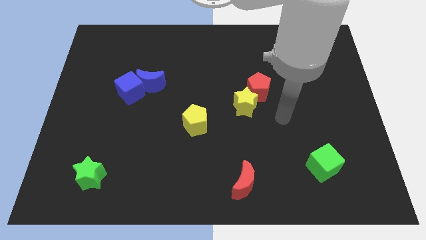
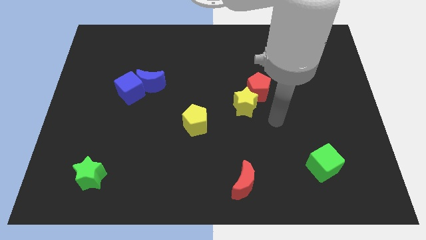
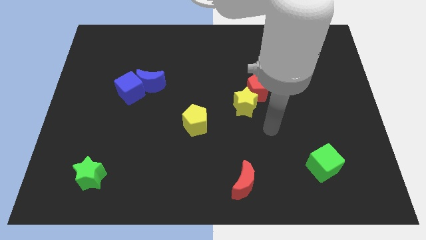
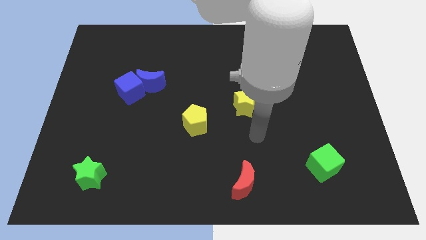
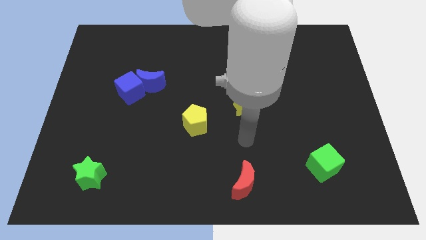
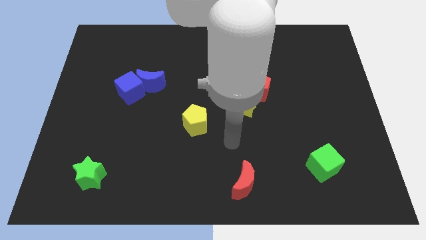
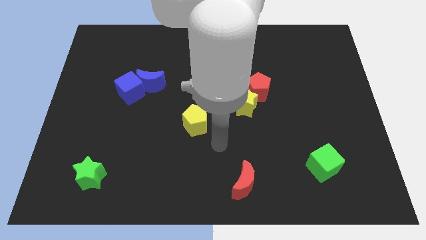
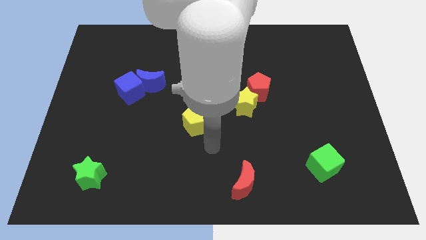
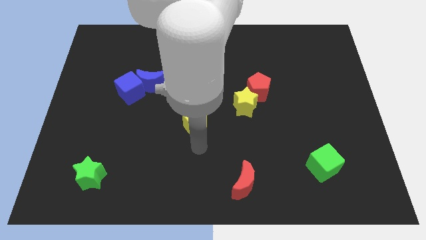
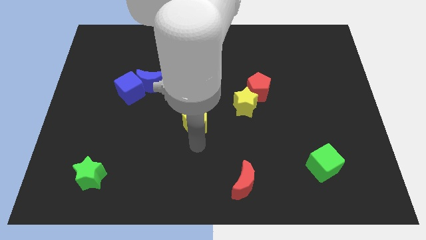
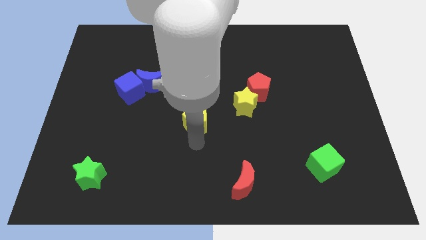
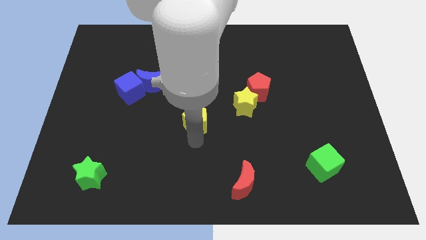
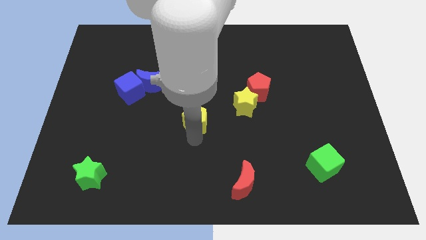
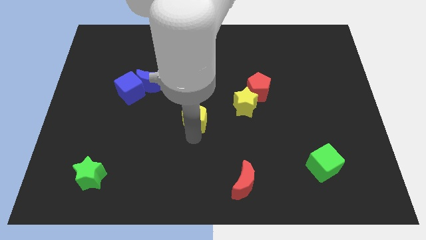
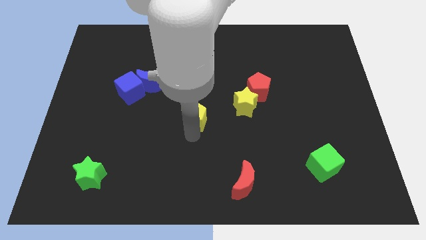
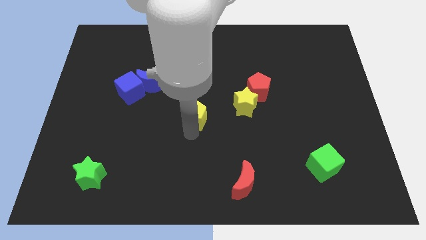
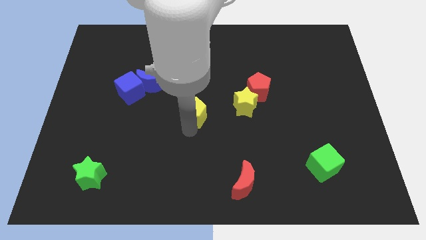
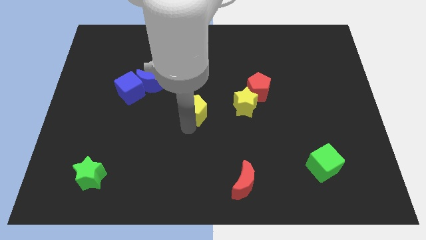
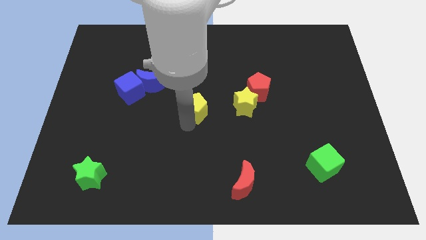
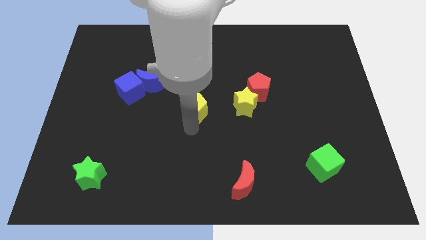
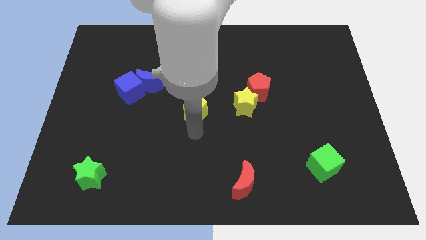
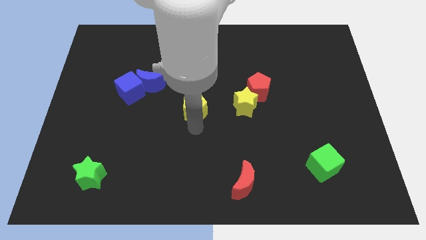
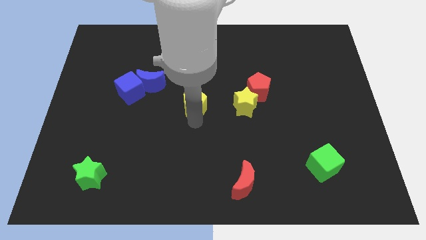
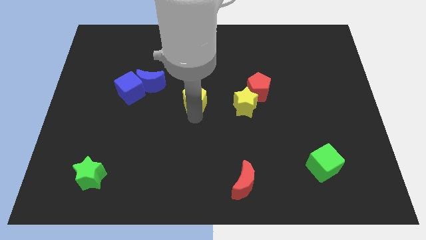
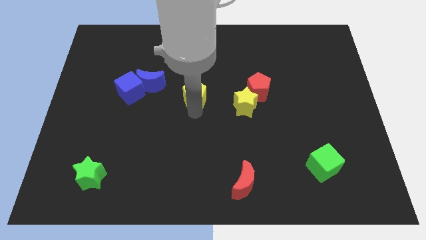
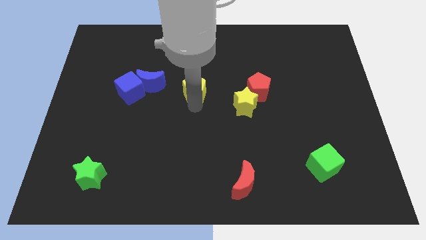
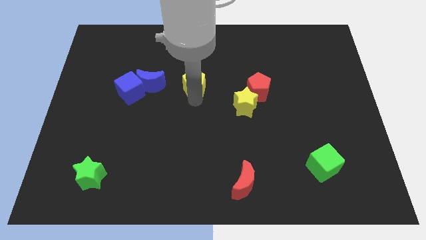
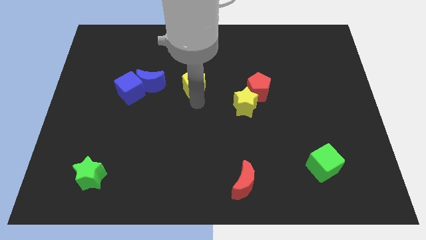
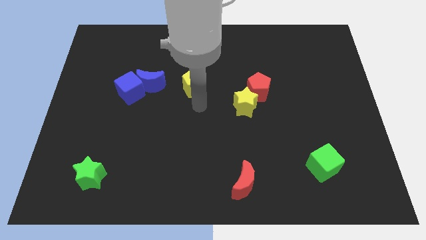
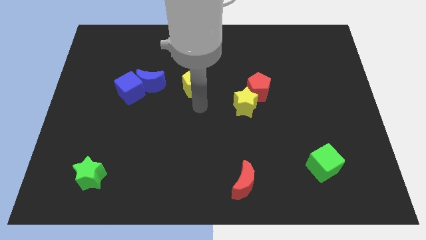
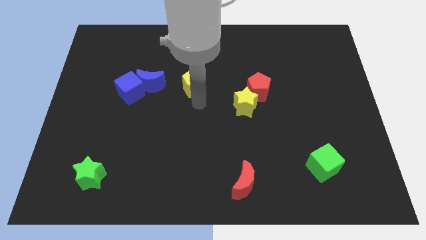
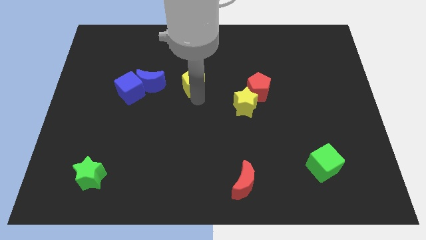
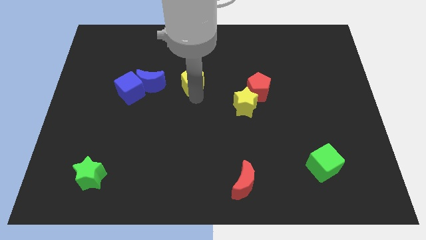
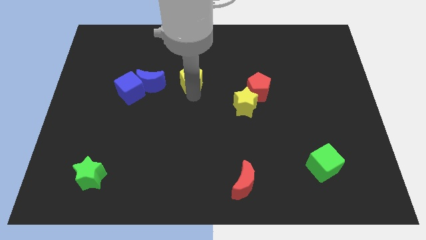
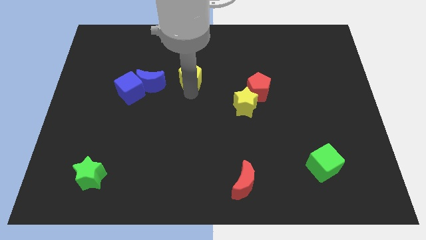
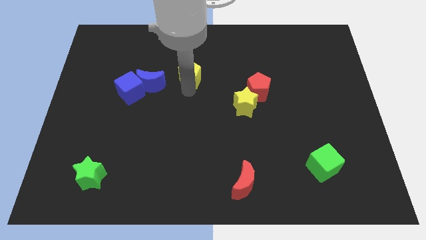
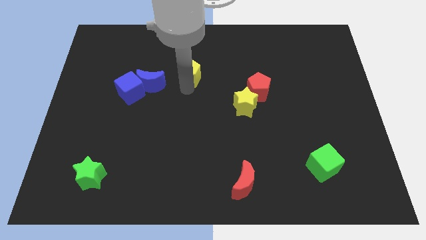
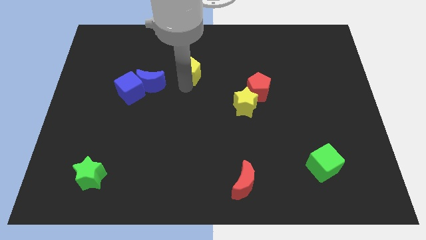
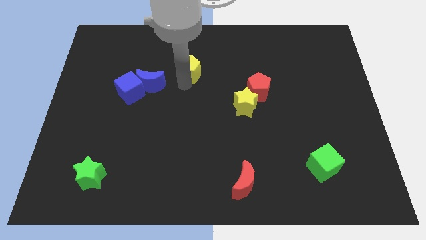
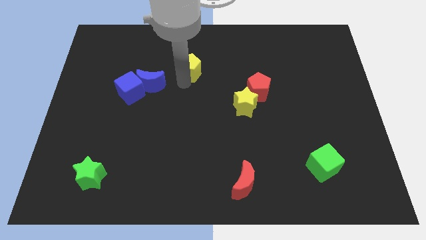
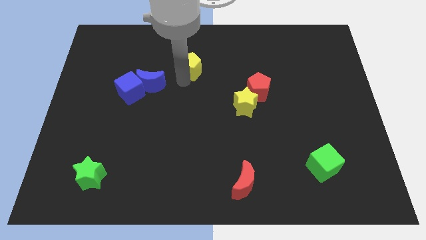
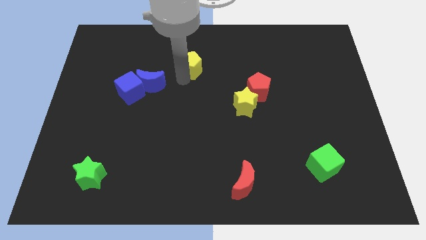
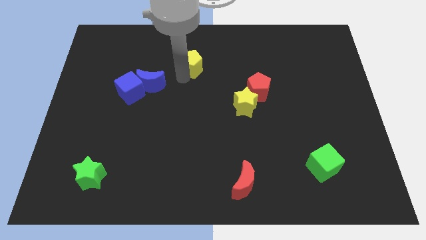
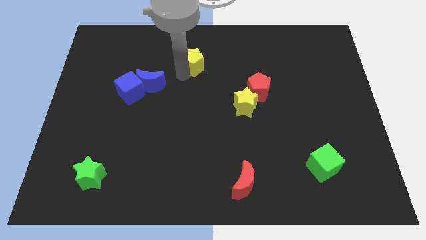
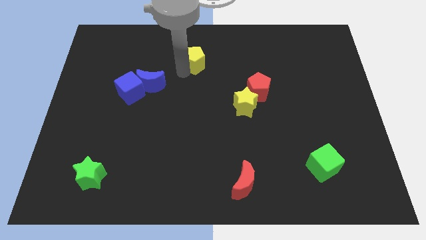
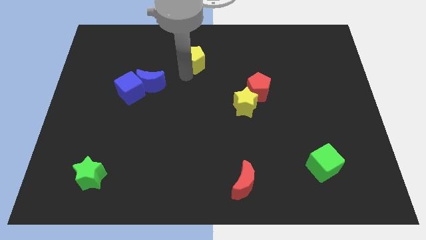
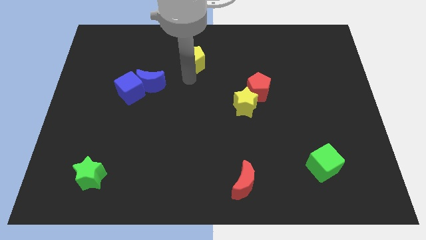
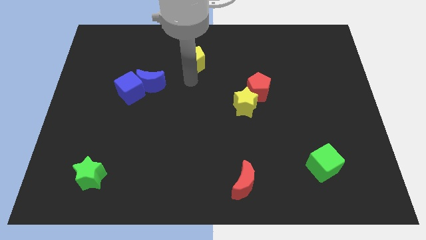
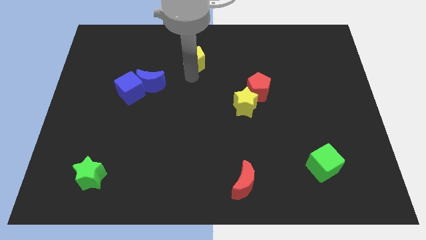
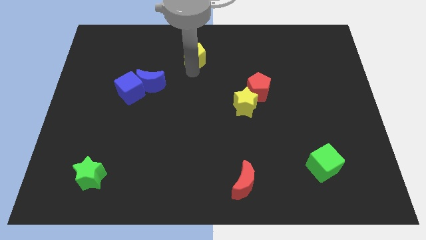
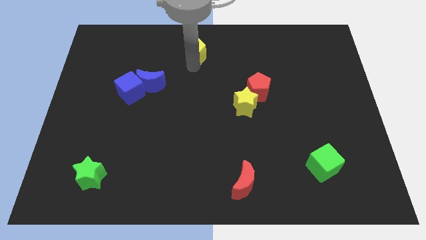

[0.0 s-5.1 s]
slide the yellow pentagon to the top

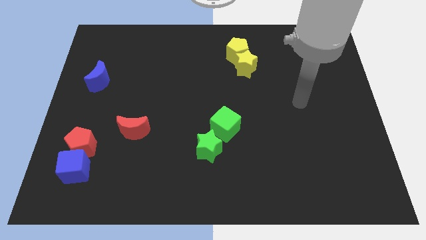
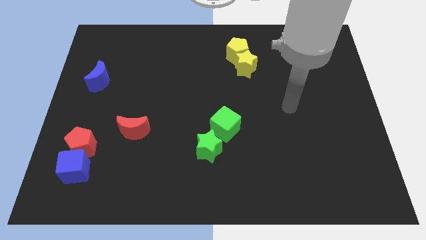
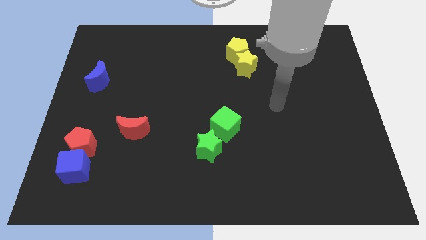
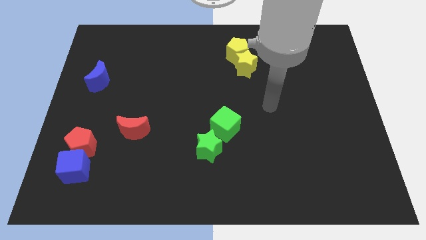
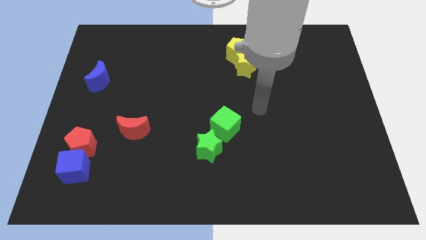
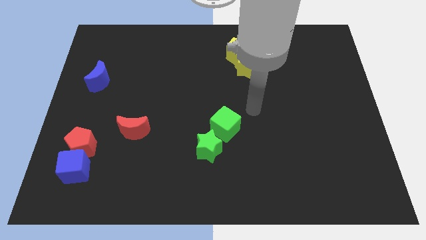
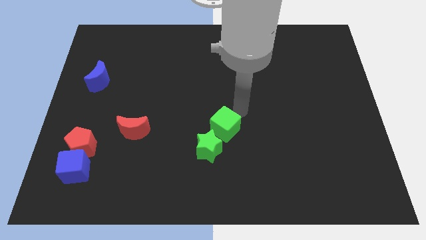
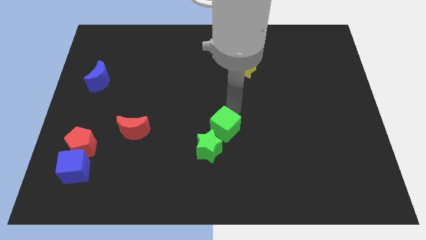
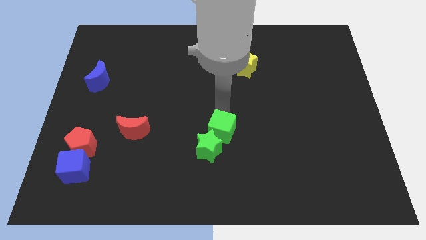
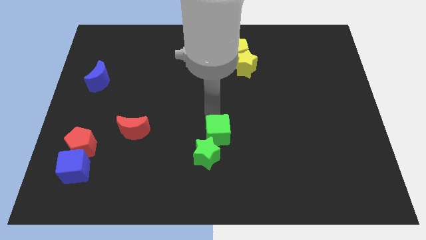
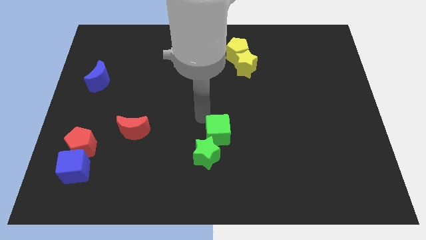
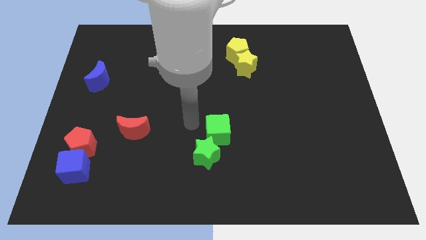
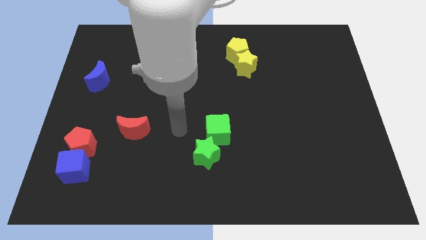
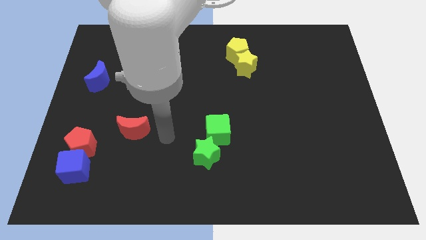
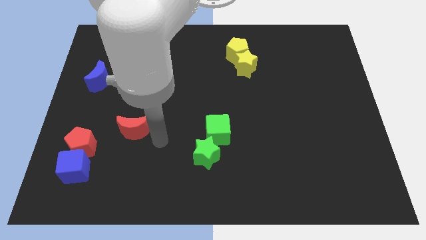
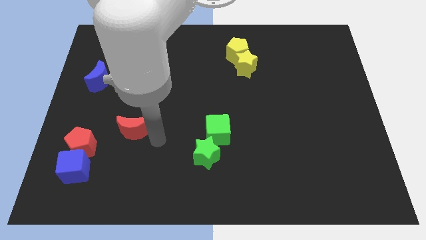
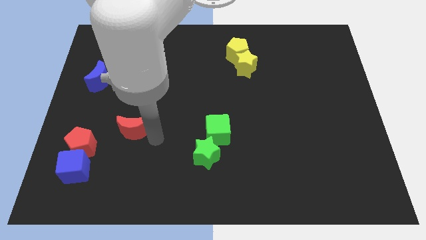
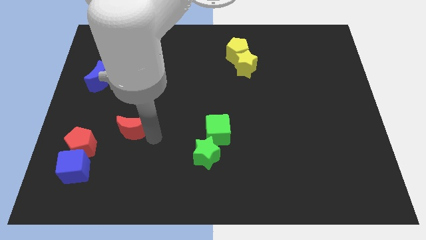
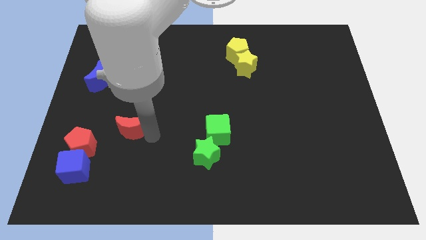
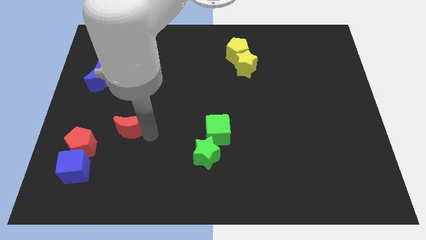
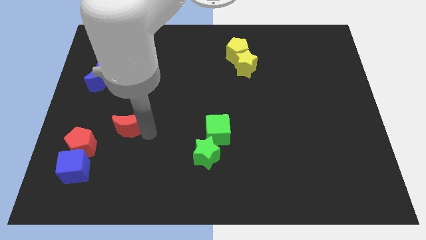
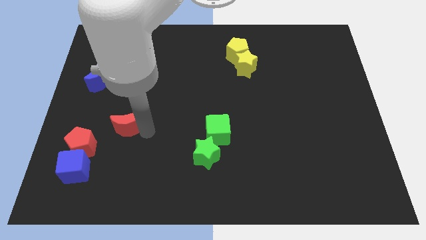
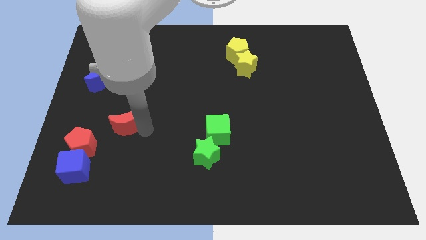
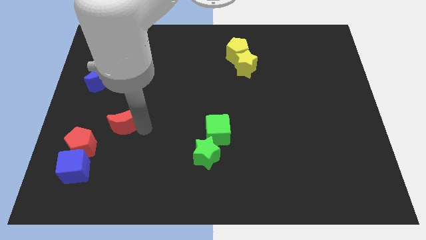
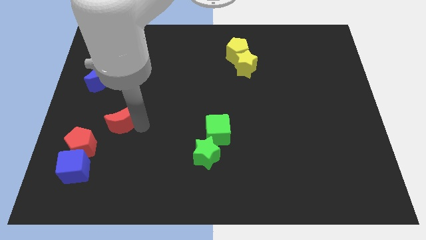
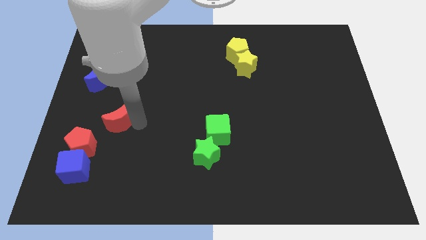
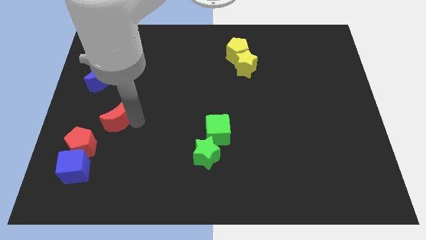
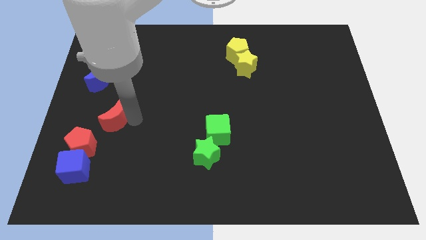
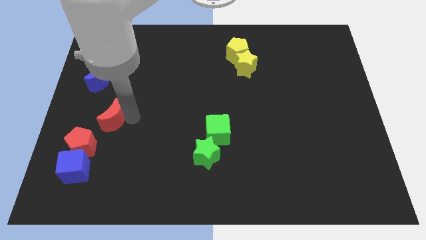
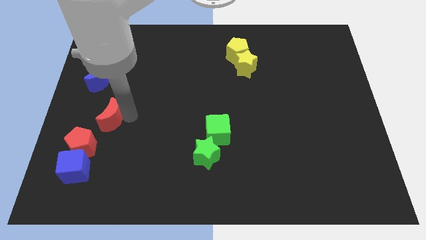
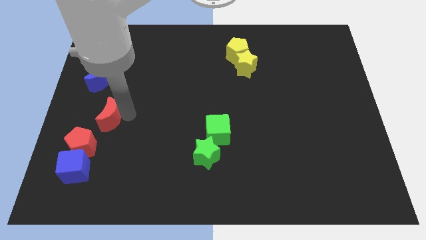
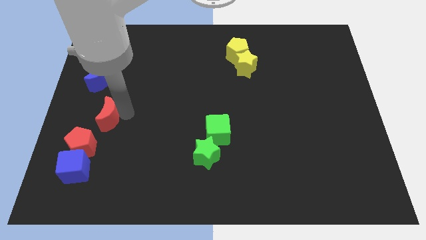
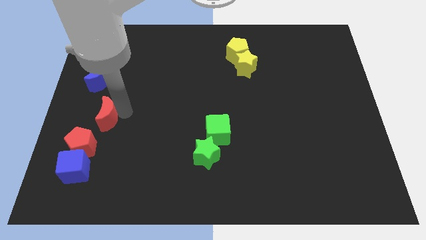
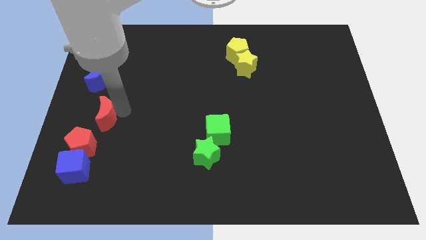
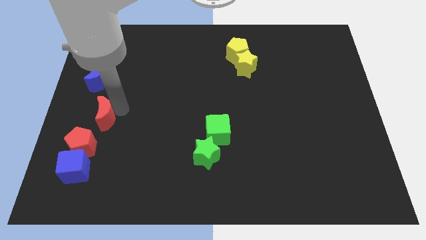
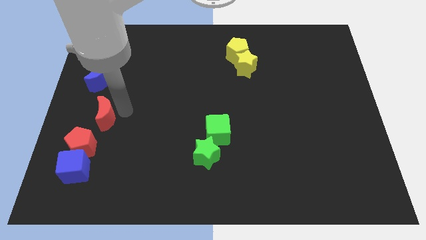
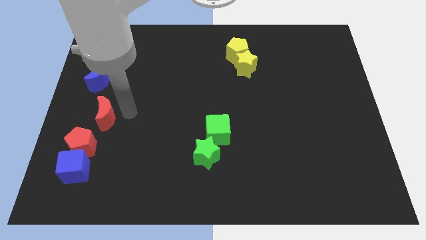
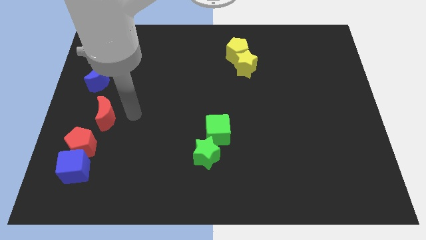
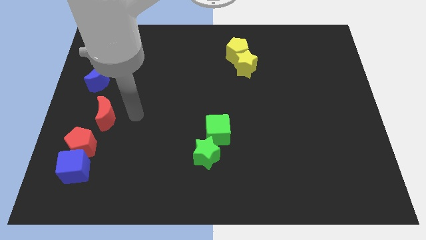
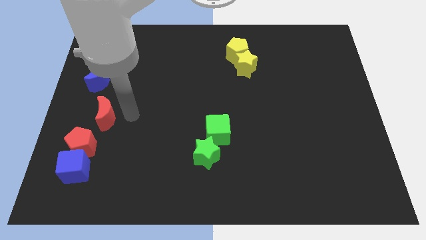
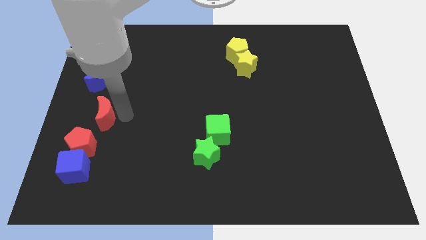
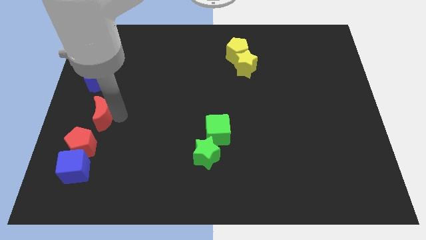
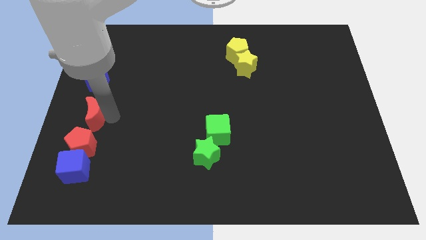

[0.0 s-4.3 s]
push the red moon to the center left
